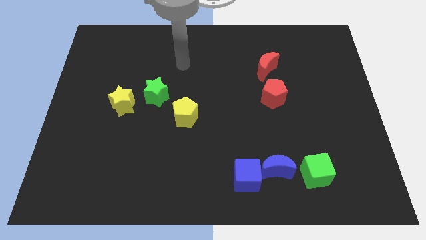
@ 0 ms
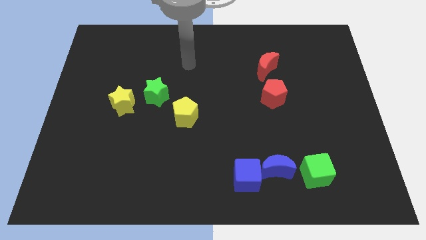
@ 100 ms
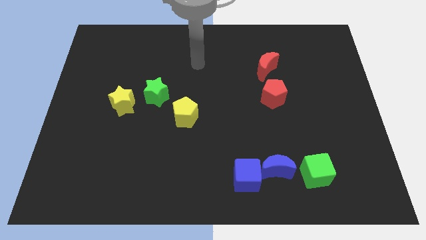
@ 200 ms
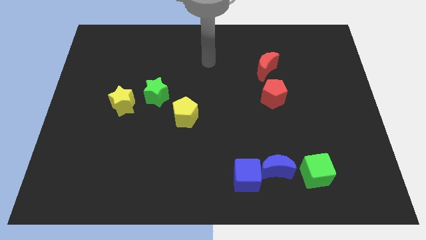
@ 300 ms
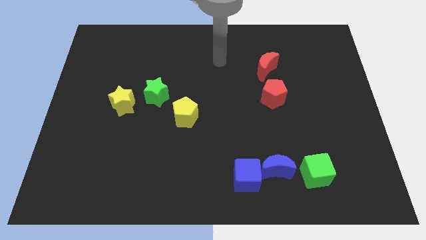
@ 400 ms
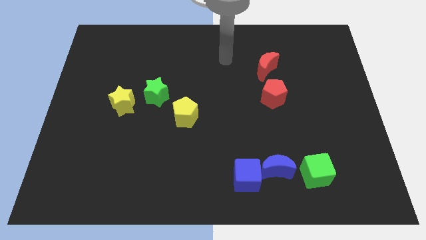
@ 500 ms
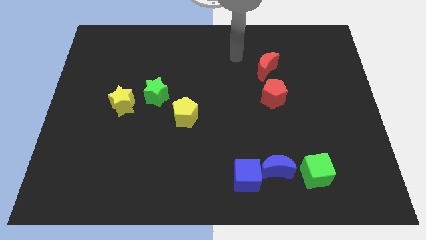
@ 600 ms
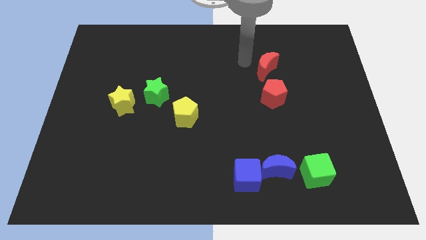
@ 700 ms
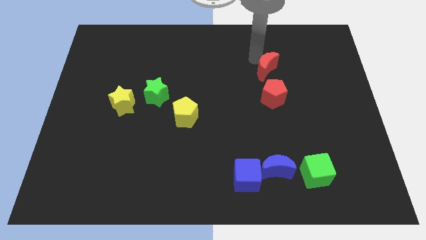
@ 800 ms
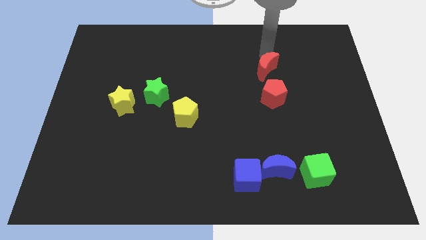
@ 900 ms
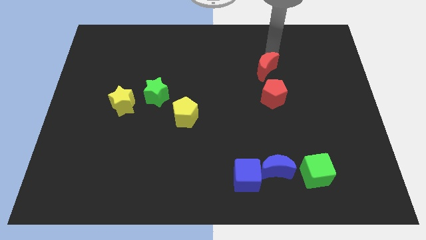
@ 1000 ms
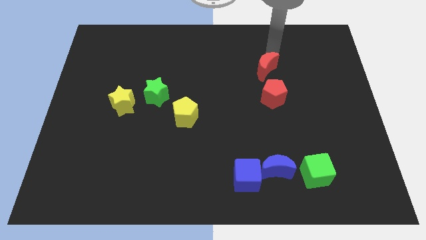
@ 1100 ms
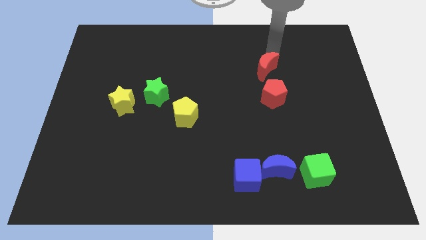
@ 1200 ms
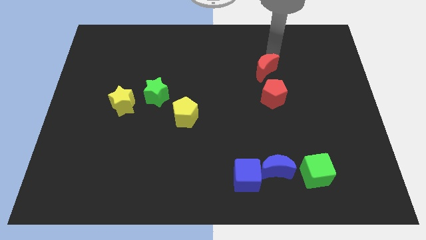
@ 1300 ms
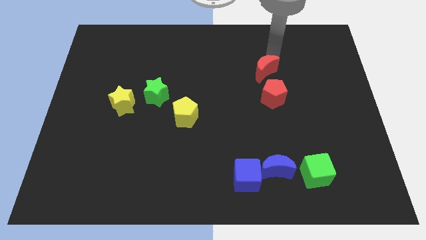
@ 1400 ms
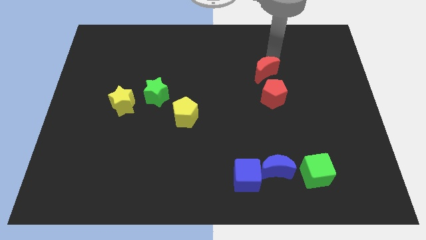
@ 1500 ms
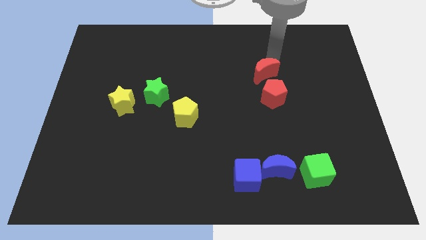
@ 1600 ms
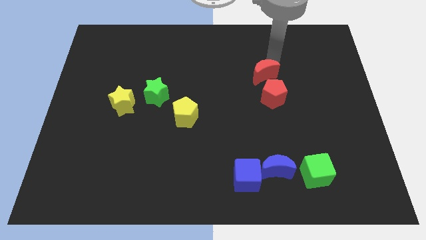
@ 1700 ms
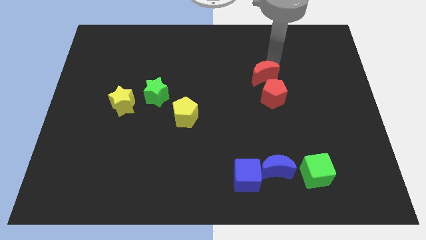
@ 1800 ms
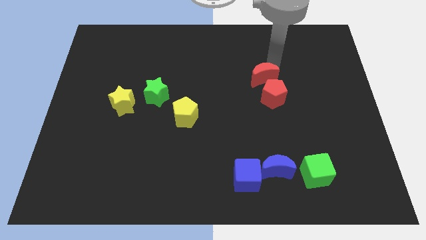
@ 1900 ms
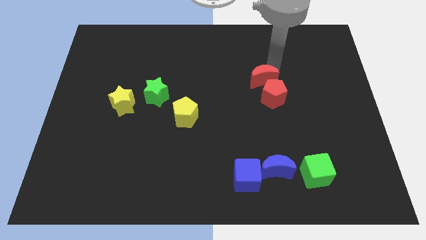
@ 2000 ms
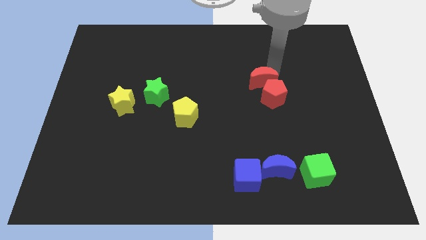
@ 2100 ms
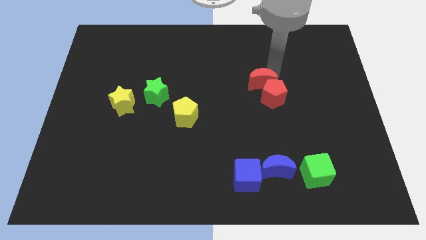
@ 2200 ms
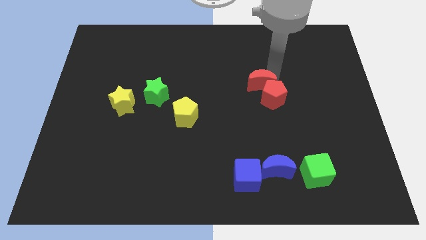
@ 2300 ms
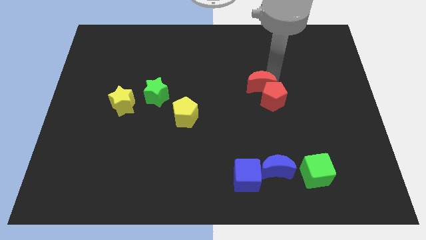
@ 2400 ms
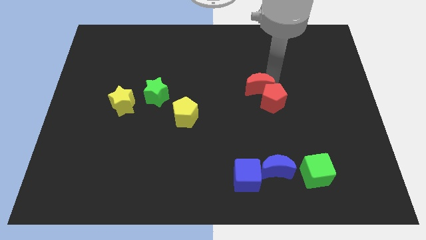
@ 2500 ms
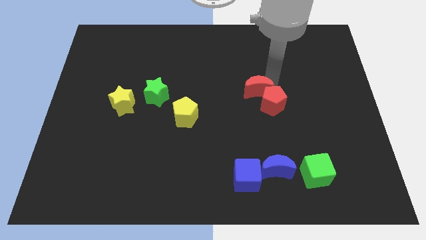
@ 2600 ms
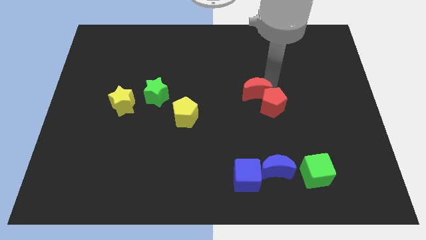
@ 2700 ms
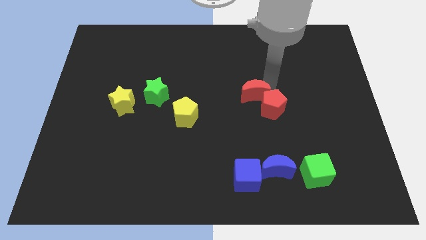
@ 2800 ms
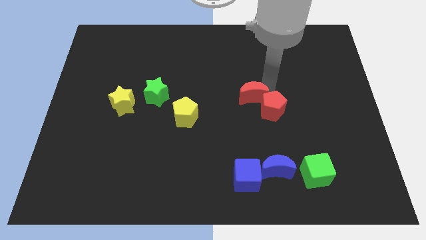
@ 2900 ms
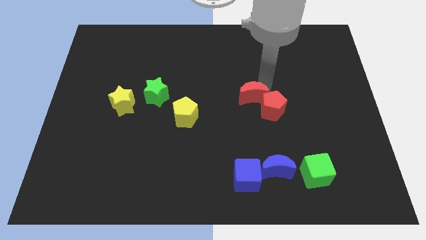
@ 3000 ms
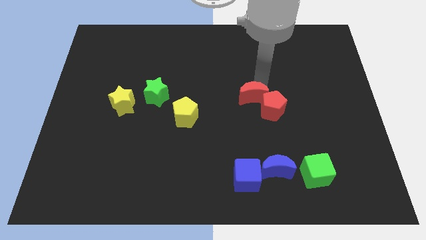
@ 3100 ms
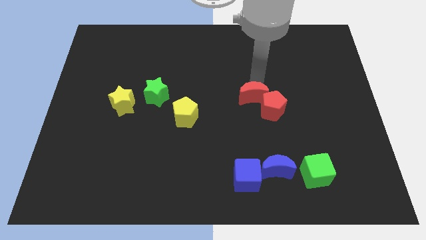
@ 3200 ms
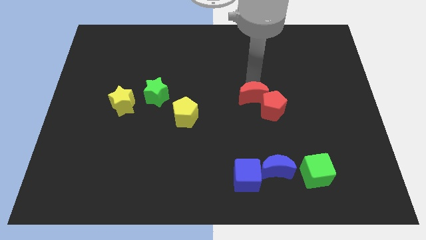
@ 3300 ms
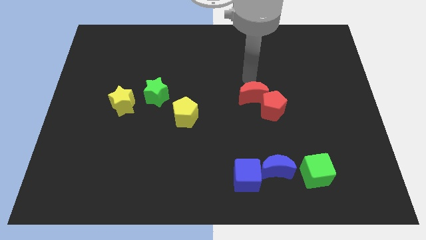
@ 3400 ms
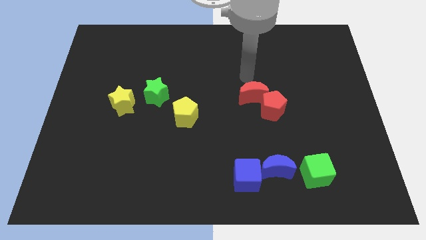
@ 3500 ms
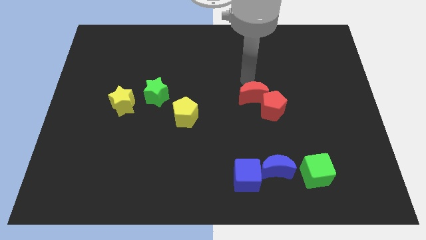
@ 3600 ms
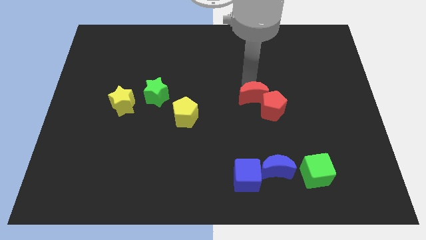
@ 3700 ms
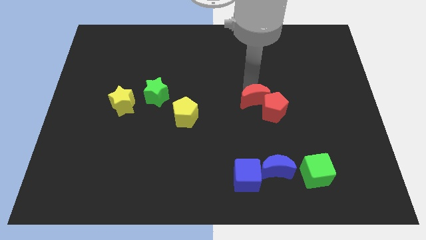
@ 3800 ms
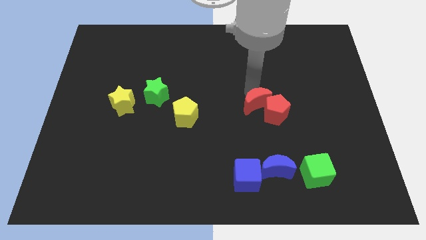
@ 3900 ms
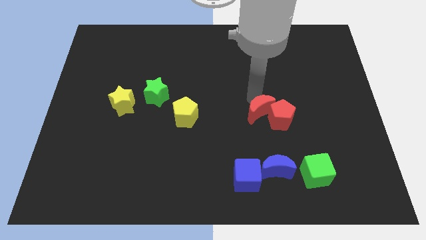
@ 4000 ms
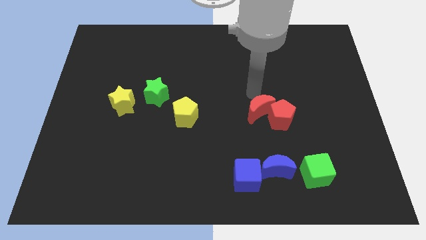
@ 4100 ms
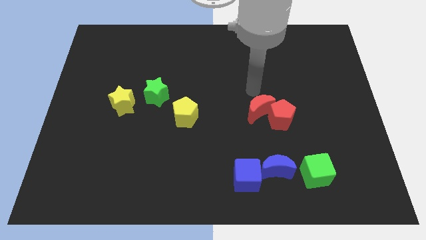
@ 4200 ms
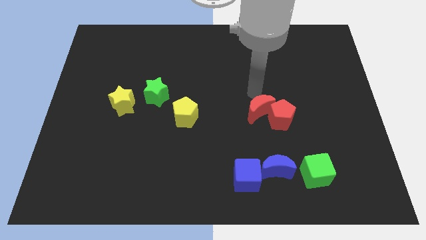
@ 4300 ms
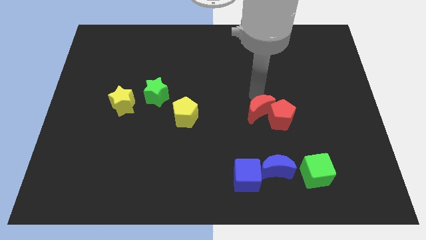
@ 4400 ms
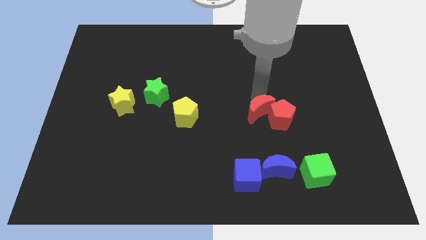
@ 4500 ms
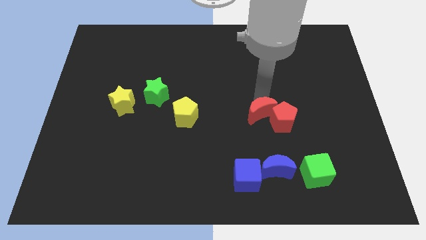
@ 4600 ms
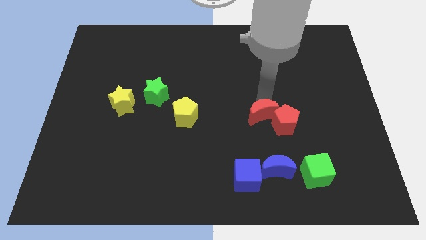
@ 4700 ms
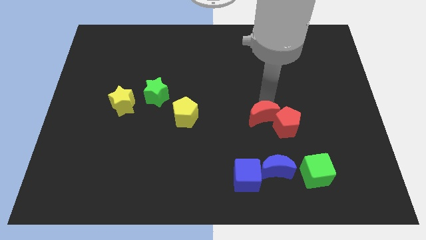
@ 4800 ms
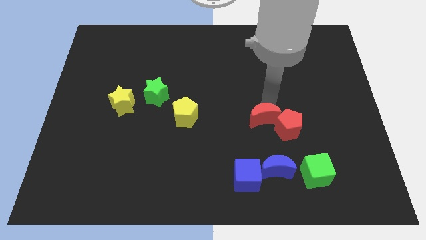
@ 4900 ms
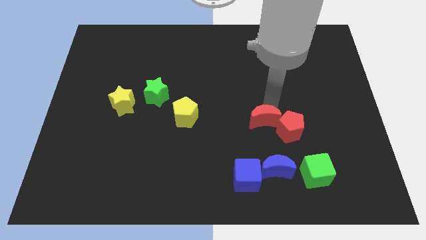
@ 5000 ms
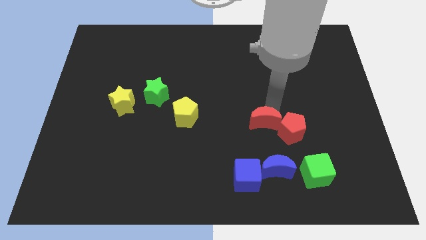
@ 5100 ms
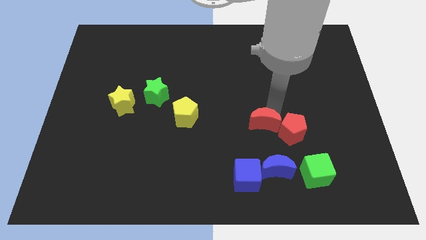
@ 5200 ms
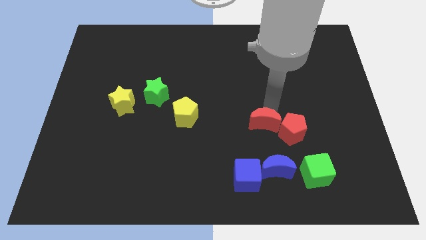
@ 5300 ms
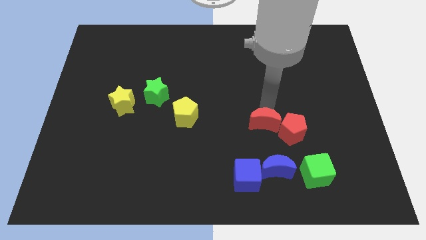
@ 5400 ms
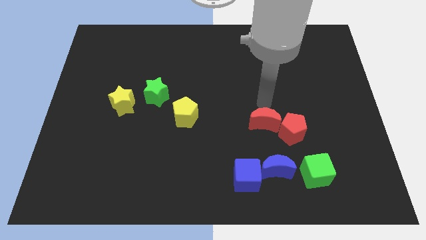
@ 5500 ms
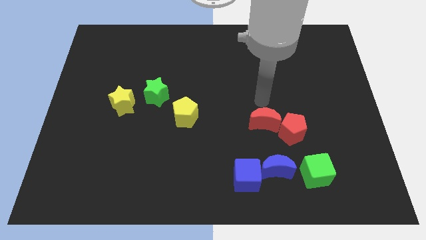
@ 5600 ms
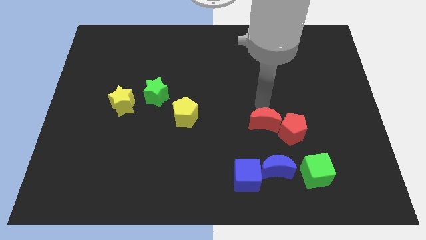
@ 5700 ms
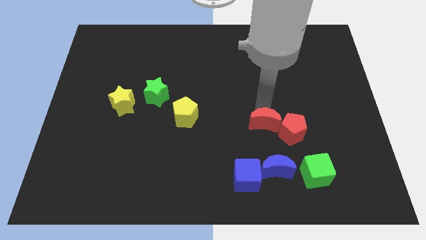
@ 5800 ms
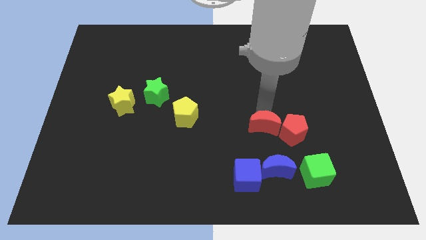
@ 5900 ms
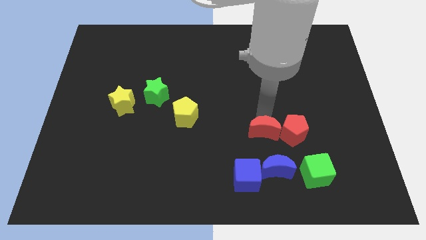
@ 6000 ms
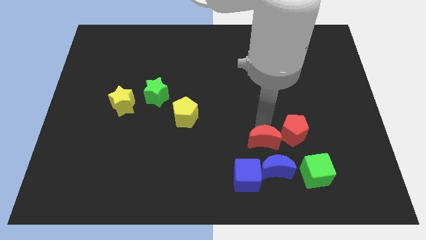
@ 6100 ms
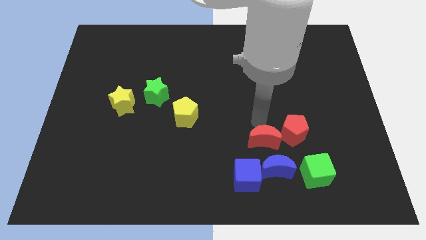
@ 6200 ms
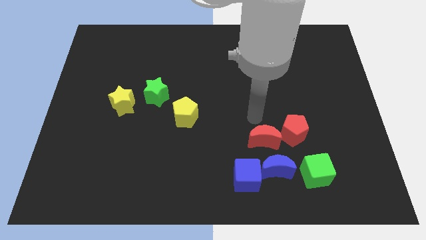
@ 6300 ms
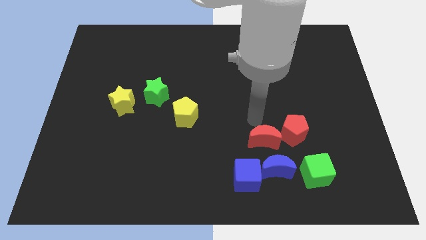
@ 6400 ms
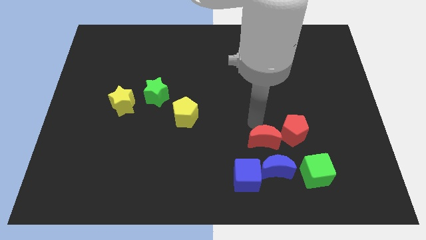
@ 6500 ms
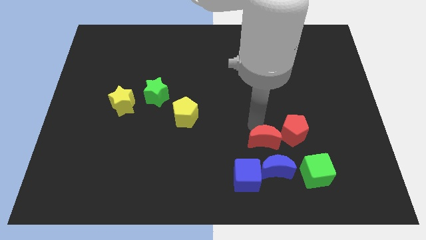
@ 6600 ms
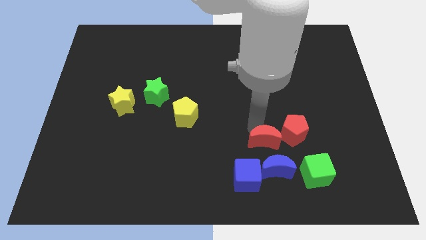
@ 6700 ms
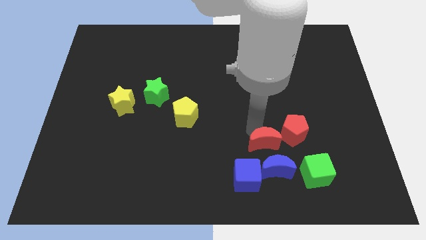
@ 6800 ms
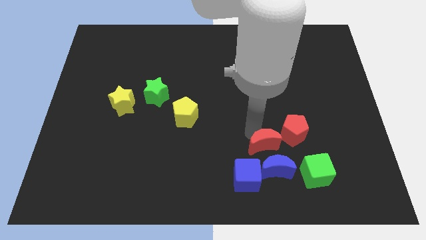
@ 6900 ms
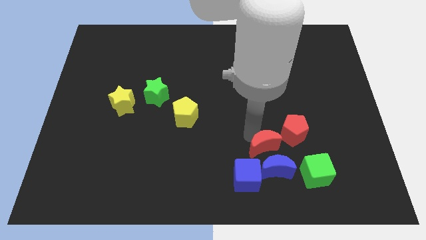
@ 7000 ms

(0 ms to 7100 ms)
put the red moon close to the blue moon
